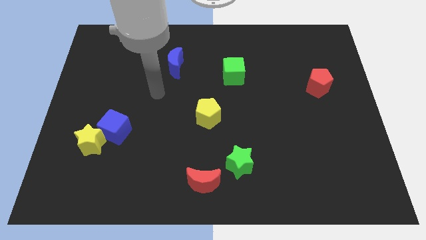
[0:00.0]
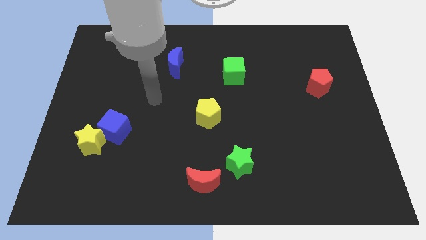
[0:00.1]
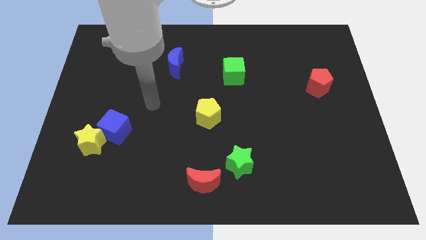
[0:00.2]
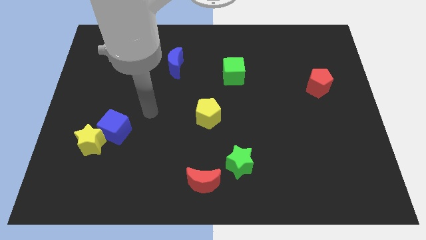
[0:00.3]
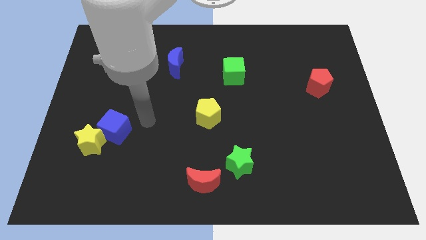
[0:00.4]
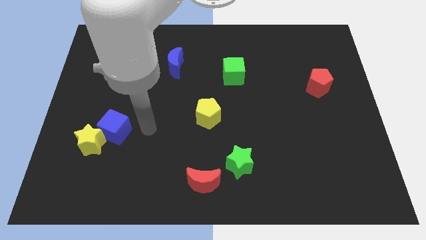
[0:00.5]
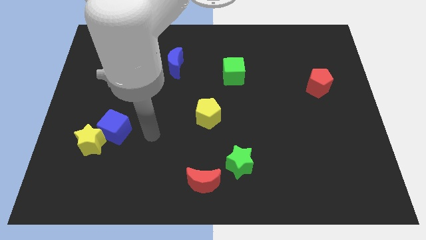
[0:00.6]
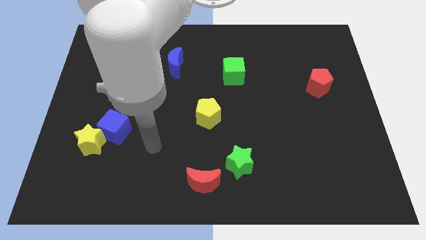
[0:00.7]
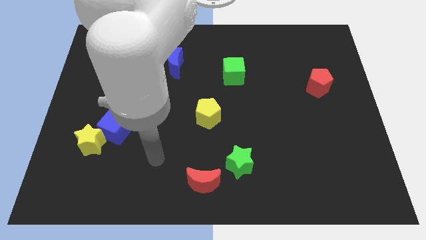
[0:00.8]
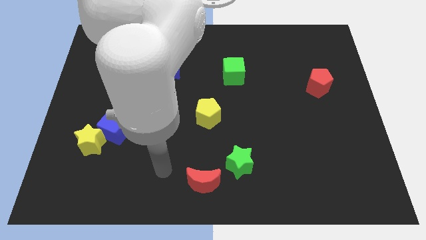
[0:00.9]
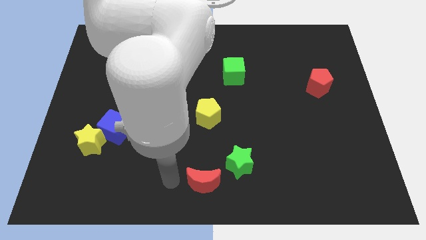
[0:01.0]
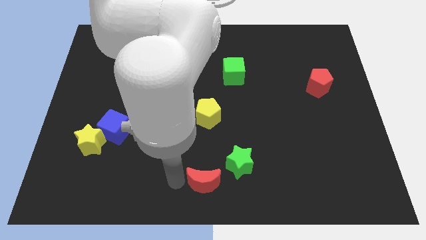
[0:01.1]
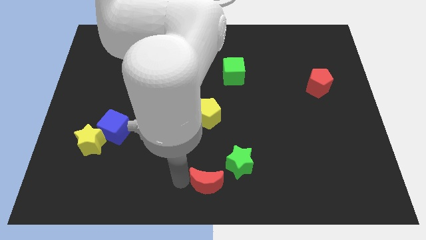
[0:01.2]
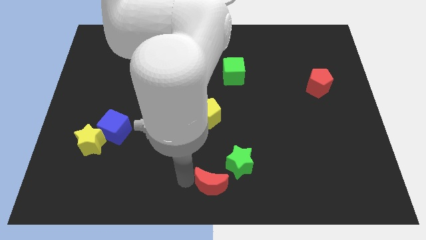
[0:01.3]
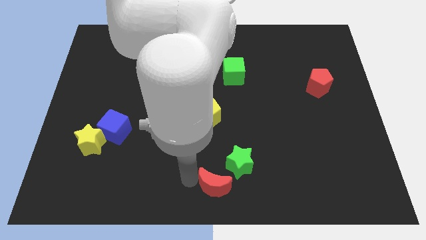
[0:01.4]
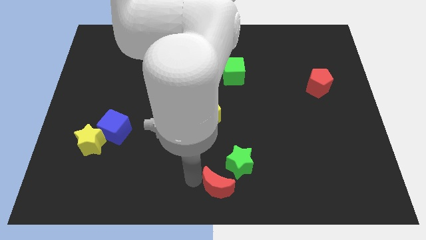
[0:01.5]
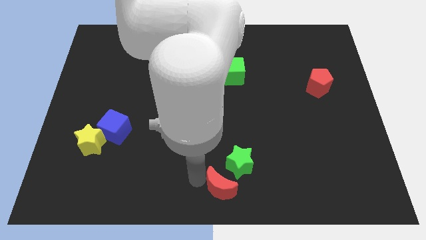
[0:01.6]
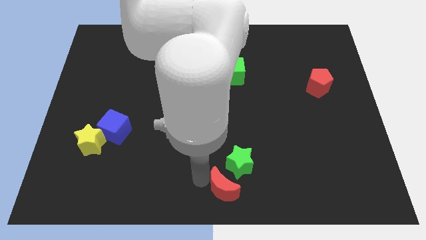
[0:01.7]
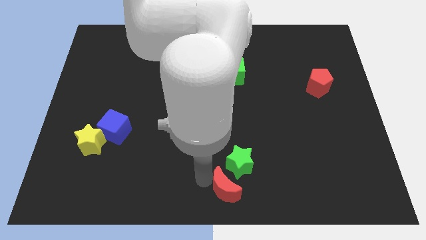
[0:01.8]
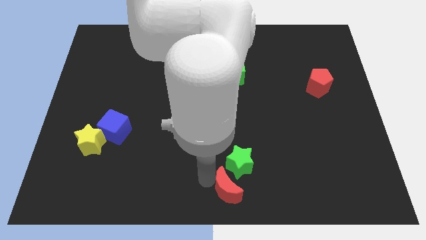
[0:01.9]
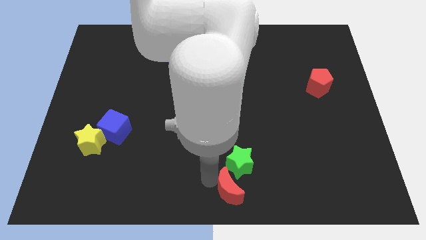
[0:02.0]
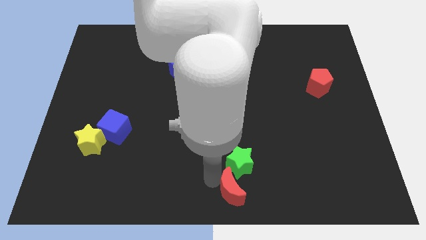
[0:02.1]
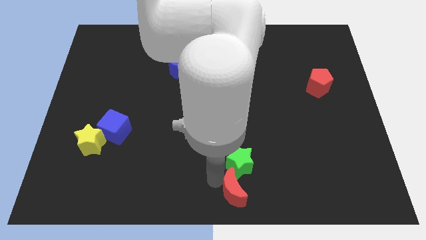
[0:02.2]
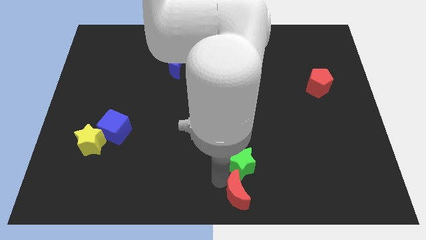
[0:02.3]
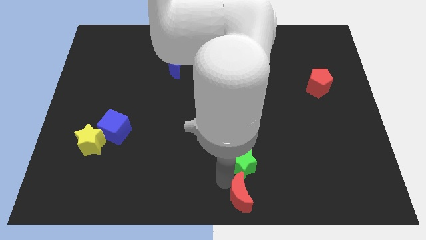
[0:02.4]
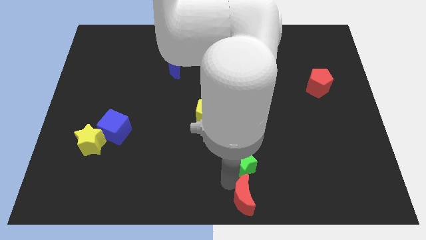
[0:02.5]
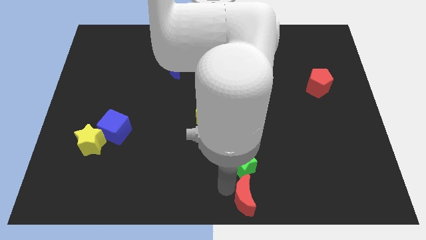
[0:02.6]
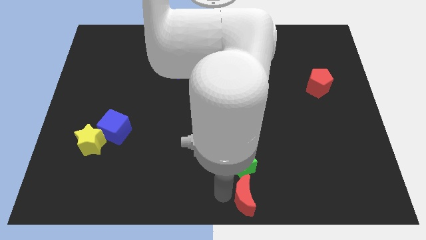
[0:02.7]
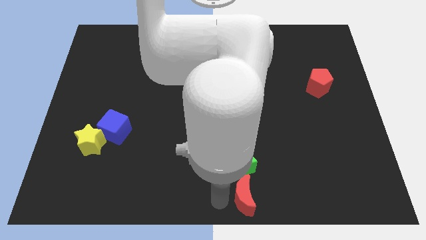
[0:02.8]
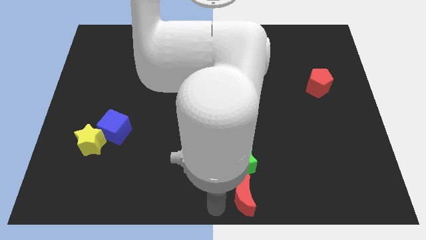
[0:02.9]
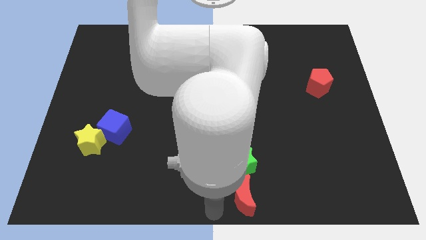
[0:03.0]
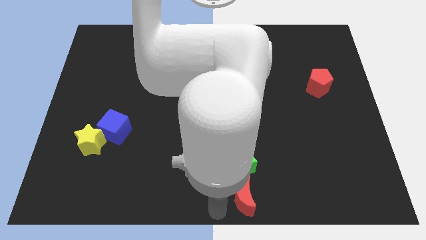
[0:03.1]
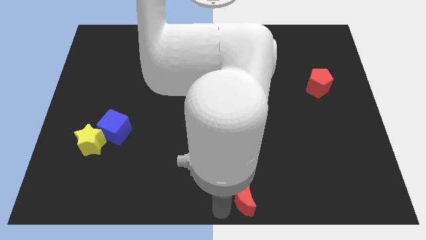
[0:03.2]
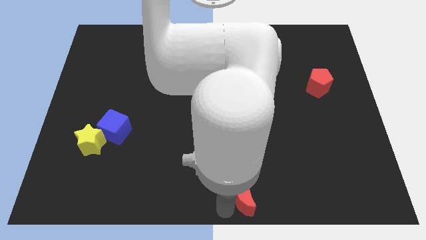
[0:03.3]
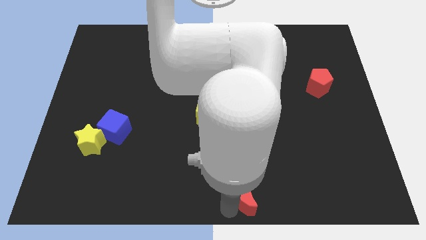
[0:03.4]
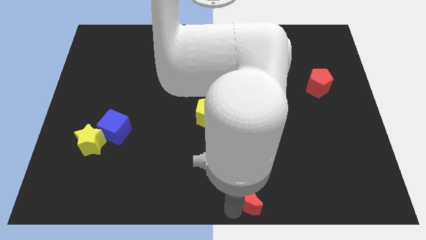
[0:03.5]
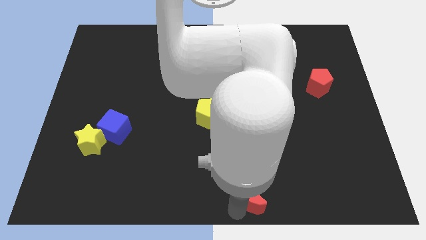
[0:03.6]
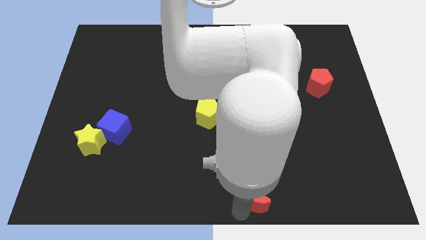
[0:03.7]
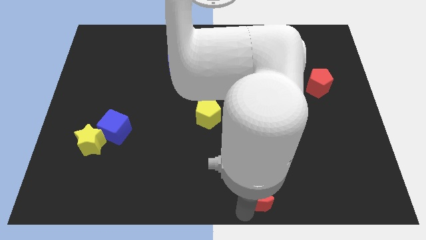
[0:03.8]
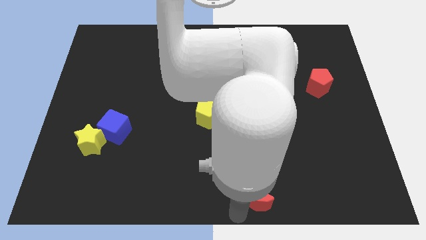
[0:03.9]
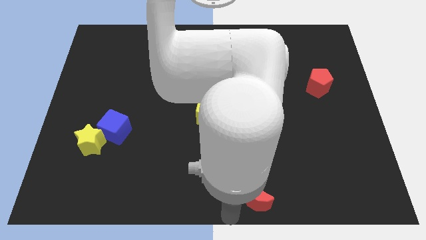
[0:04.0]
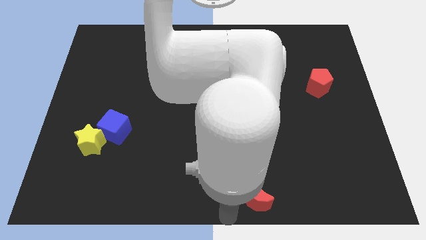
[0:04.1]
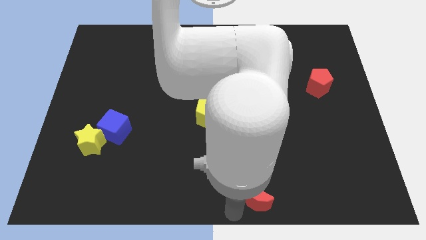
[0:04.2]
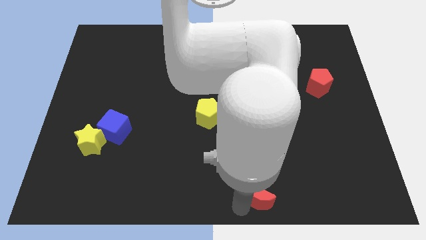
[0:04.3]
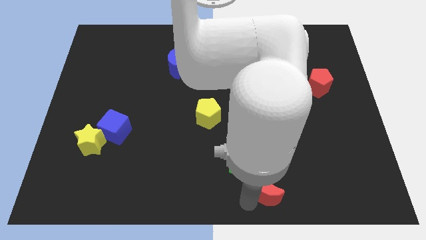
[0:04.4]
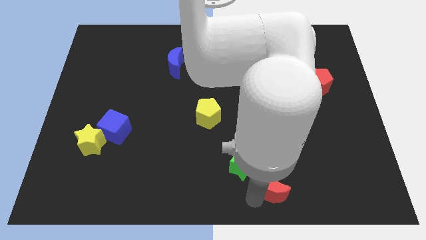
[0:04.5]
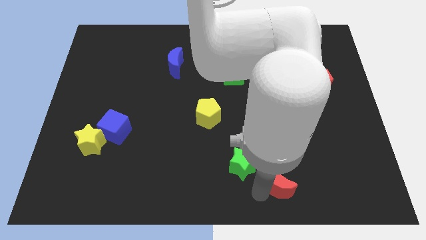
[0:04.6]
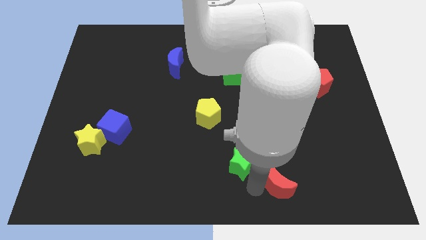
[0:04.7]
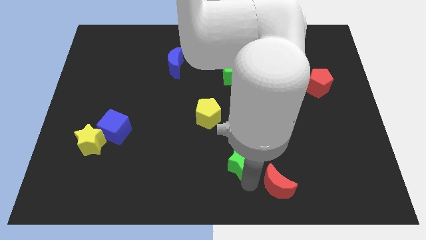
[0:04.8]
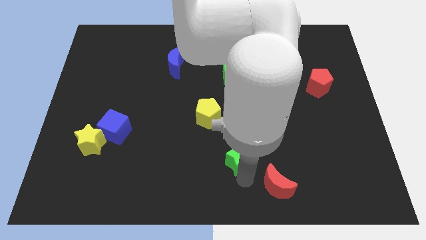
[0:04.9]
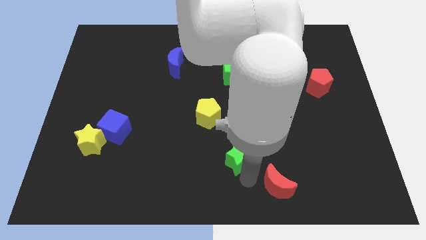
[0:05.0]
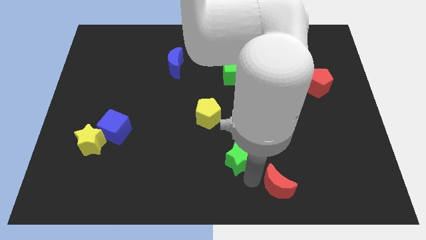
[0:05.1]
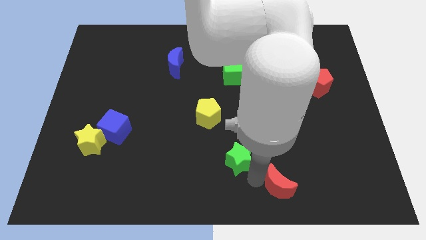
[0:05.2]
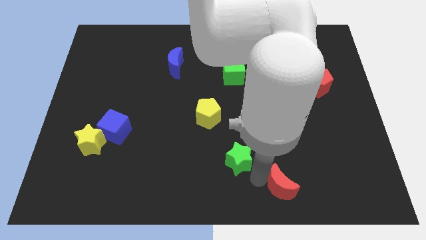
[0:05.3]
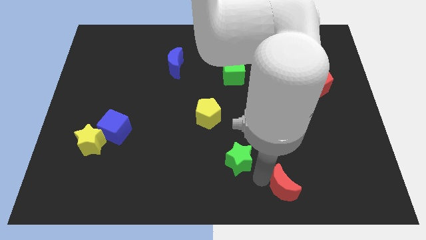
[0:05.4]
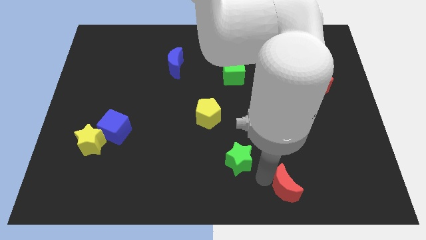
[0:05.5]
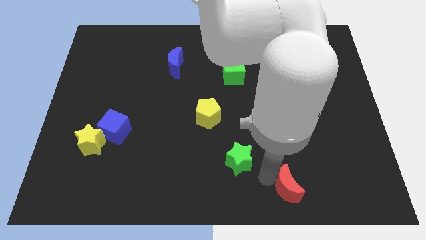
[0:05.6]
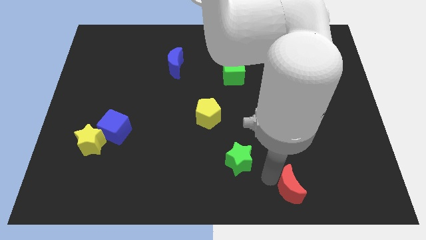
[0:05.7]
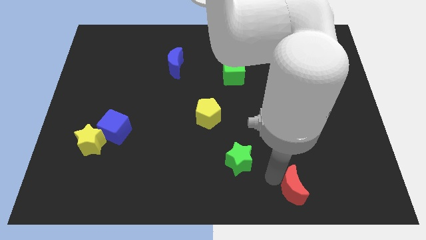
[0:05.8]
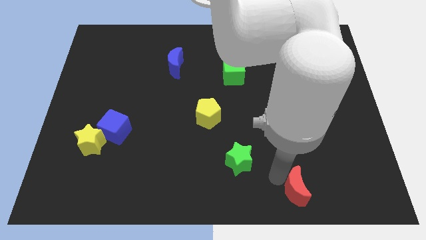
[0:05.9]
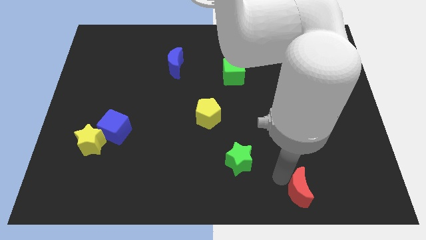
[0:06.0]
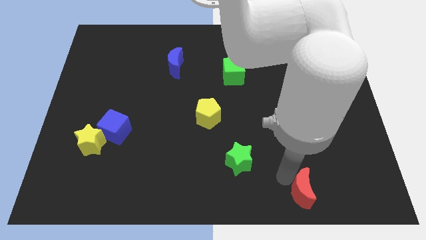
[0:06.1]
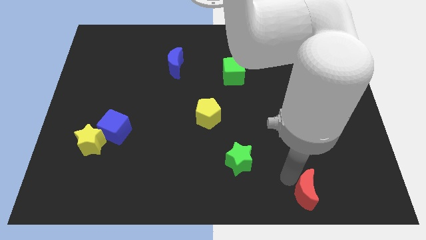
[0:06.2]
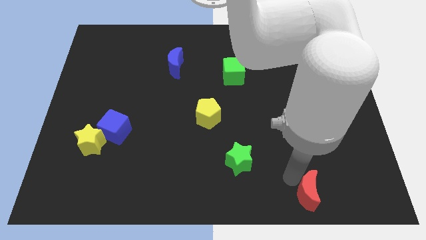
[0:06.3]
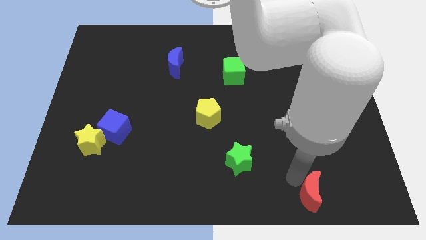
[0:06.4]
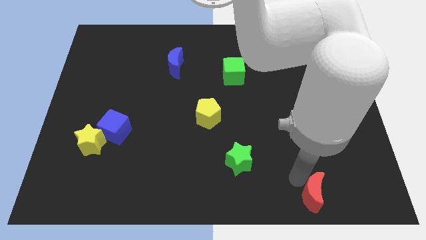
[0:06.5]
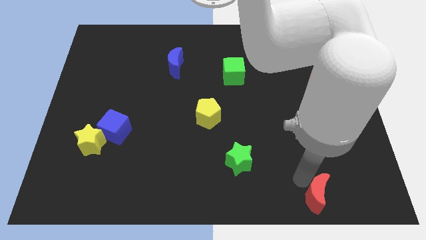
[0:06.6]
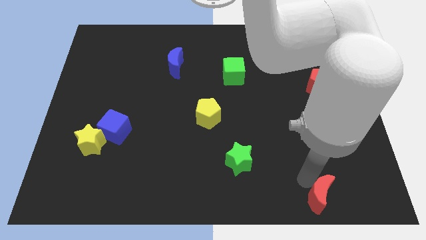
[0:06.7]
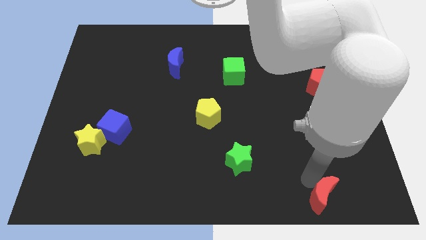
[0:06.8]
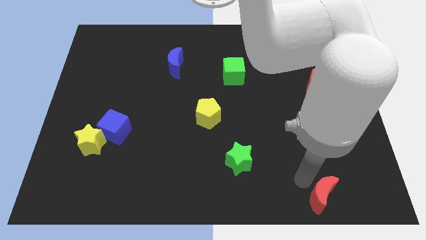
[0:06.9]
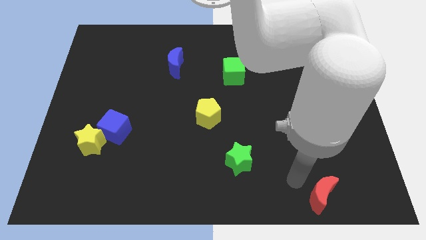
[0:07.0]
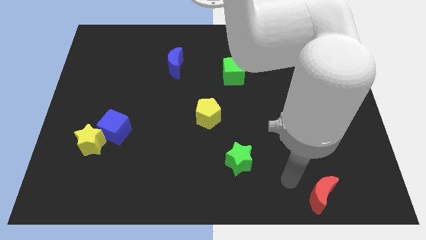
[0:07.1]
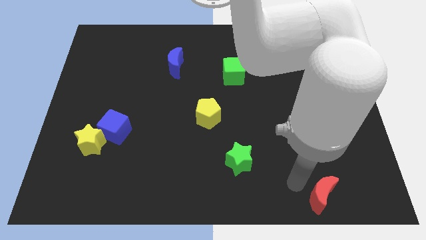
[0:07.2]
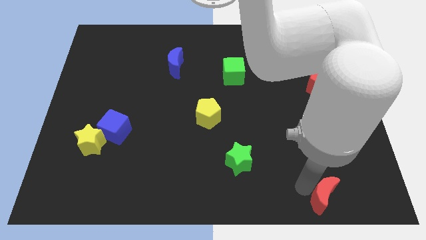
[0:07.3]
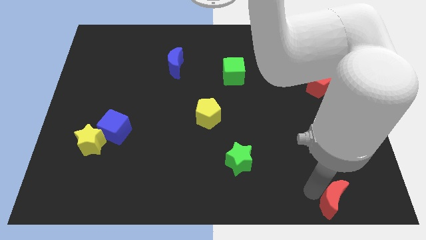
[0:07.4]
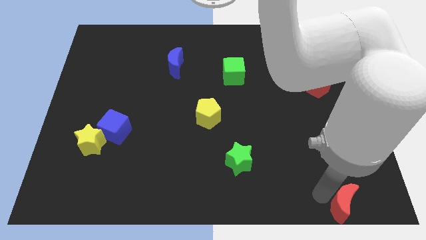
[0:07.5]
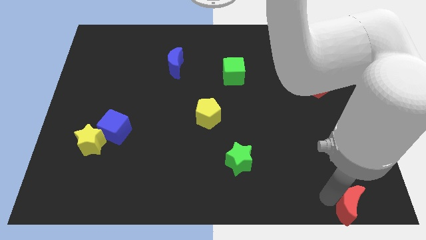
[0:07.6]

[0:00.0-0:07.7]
push the red moon to the bottom right corner
